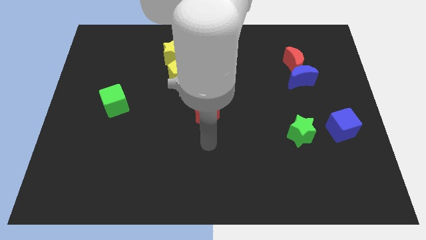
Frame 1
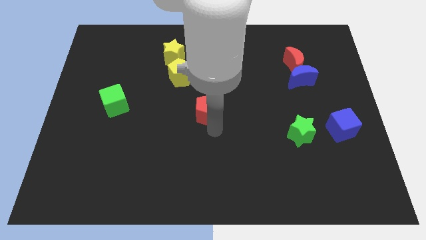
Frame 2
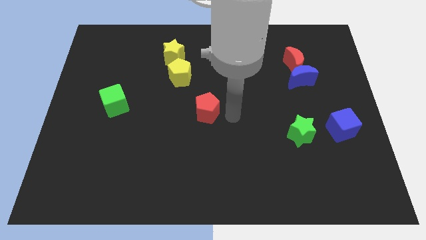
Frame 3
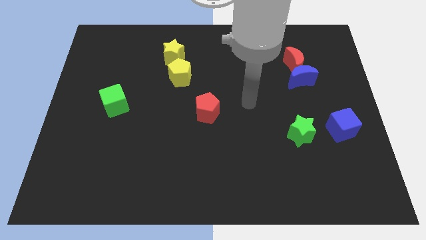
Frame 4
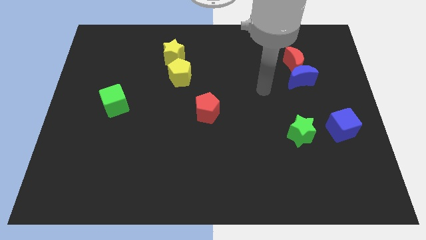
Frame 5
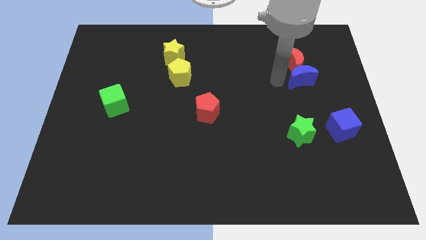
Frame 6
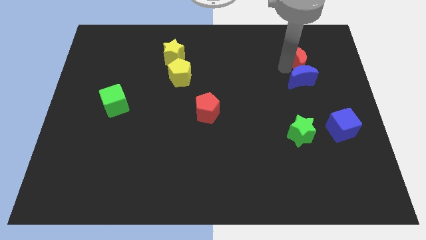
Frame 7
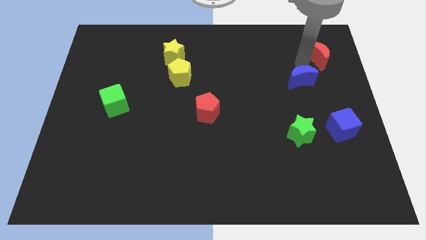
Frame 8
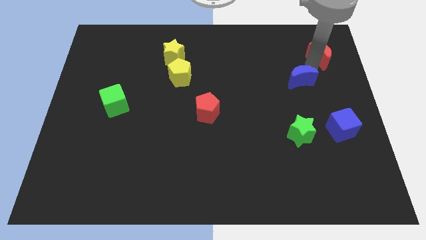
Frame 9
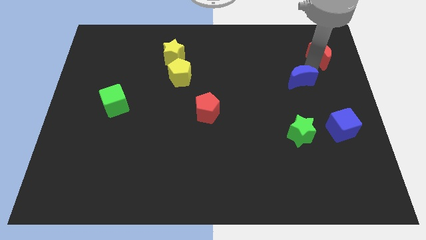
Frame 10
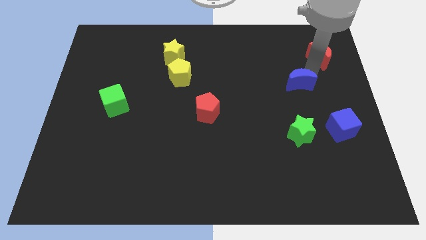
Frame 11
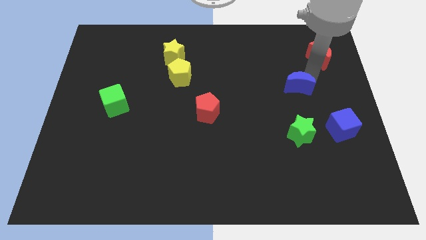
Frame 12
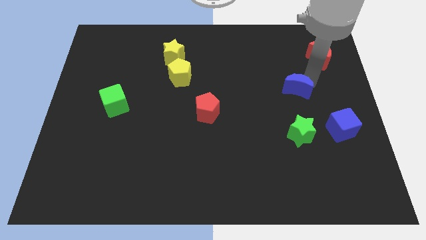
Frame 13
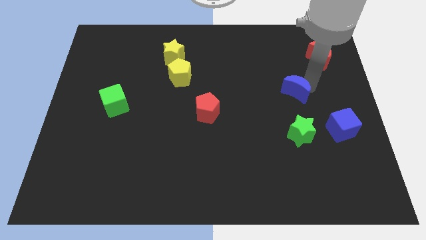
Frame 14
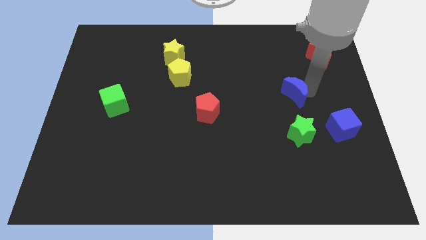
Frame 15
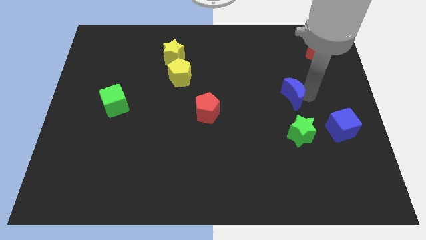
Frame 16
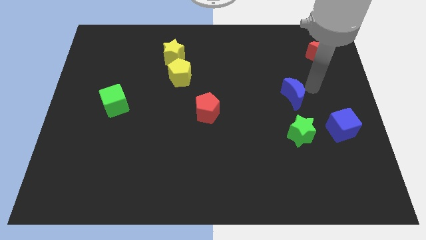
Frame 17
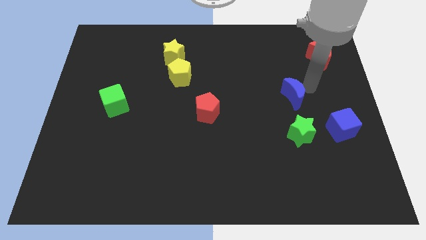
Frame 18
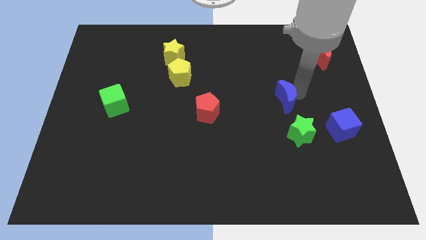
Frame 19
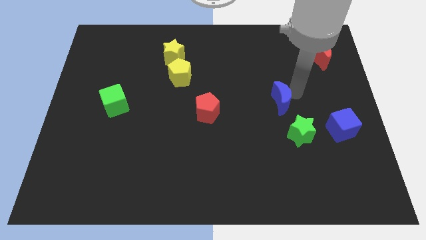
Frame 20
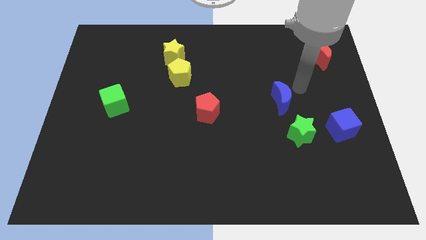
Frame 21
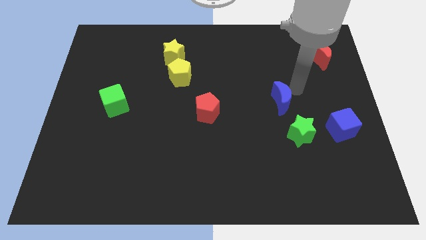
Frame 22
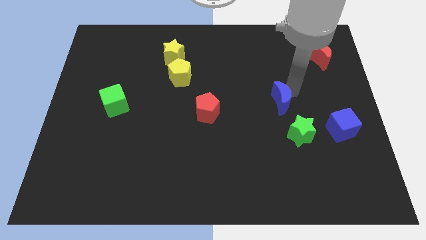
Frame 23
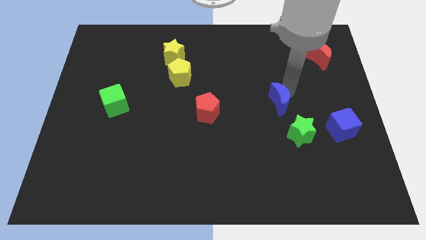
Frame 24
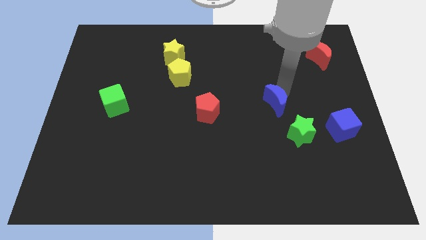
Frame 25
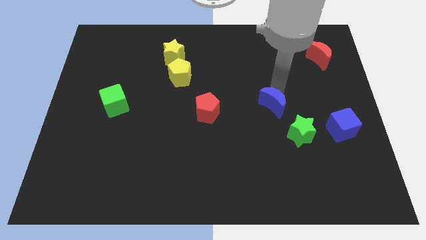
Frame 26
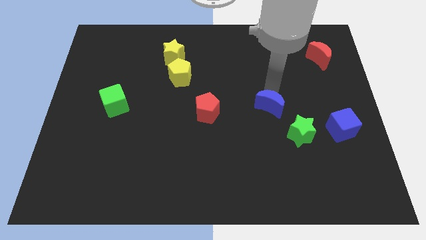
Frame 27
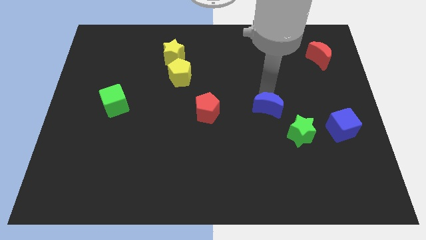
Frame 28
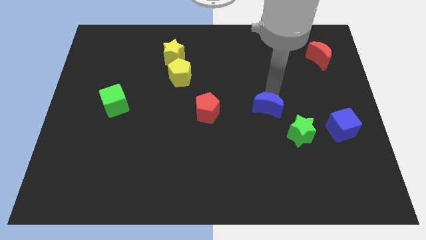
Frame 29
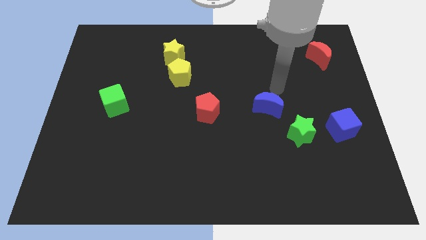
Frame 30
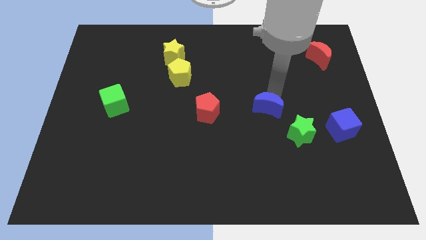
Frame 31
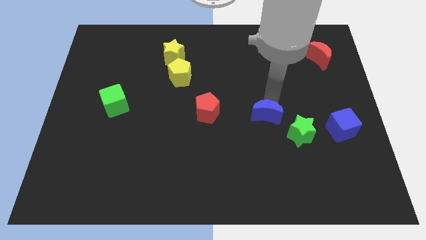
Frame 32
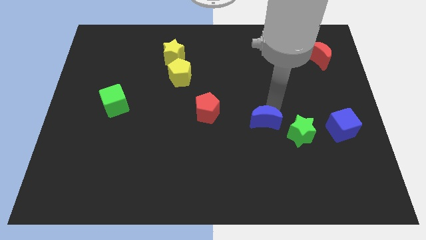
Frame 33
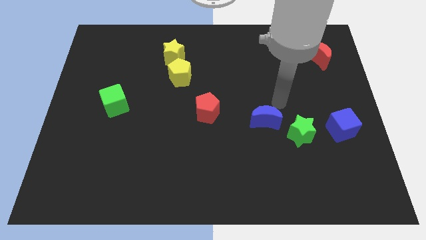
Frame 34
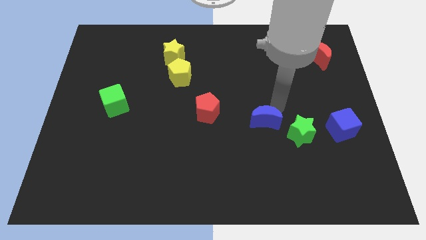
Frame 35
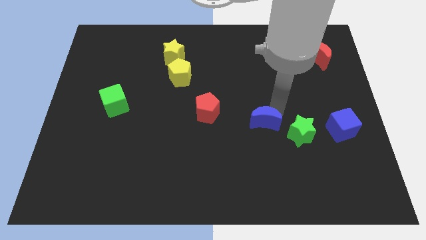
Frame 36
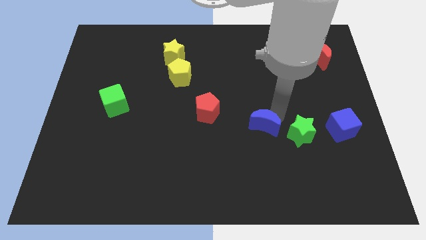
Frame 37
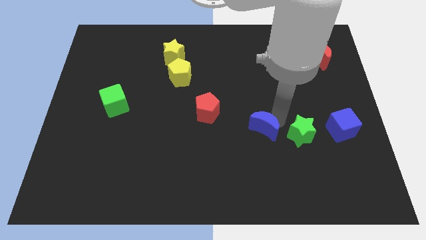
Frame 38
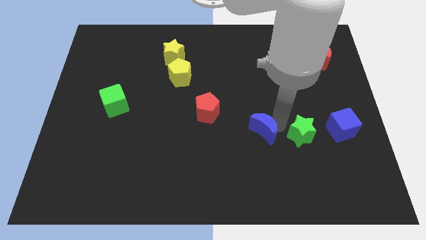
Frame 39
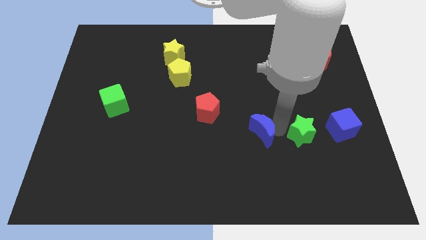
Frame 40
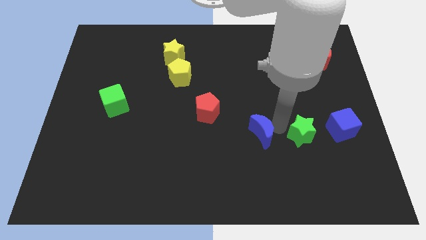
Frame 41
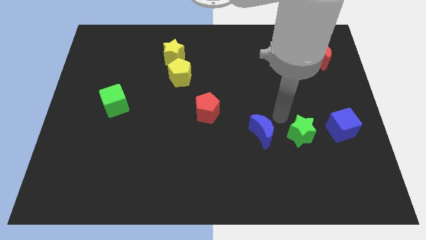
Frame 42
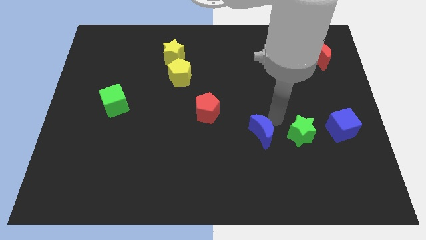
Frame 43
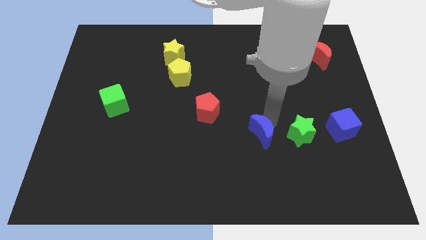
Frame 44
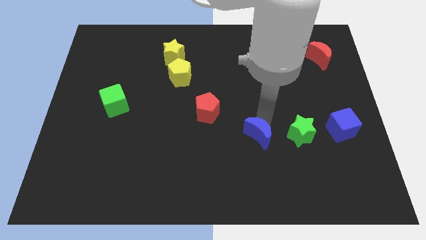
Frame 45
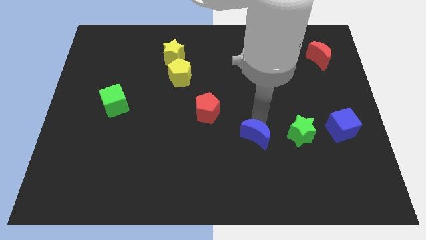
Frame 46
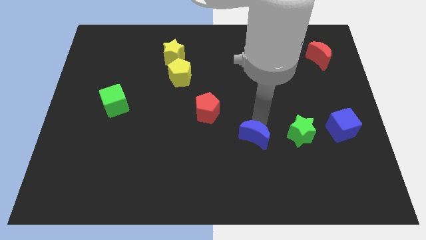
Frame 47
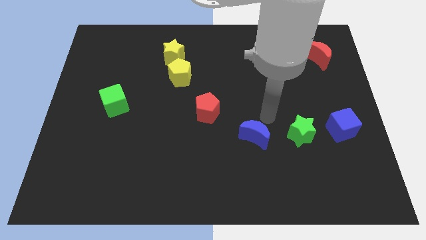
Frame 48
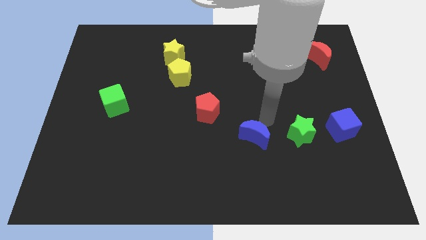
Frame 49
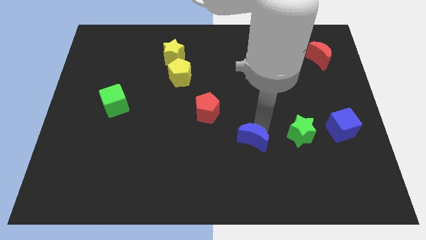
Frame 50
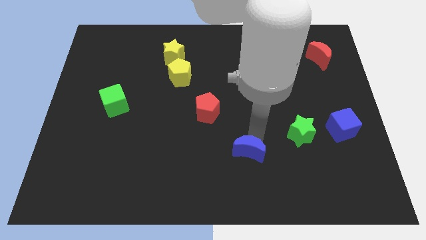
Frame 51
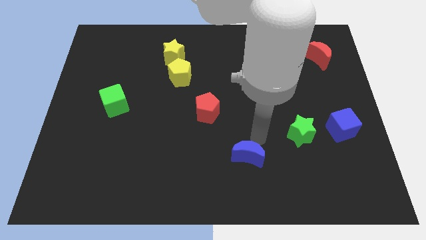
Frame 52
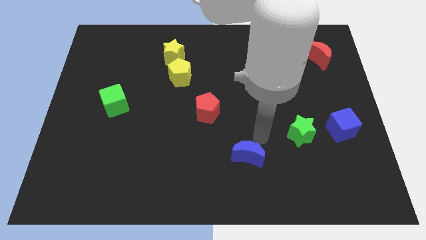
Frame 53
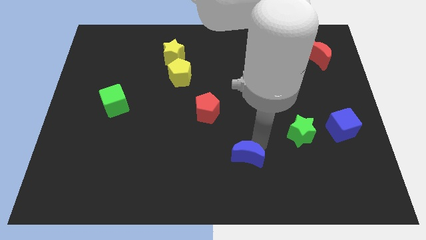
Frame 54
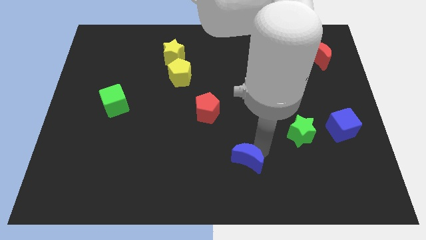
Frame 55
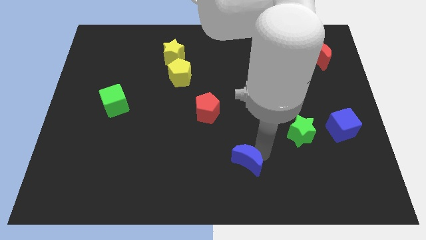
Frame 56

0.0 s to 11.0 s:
put the blue moon to the bottom

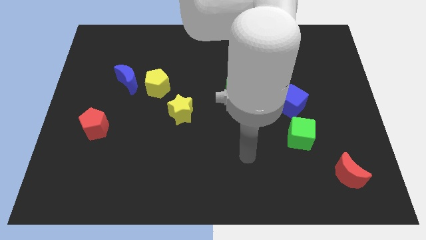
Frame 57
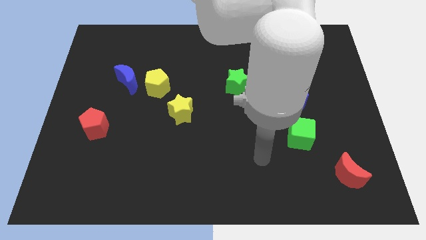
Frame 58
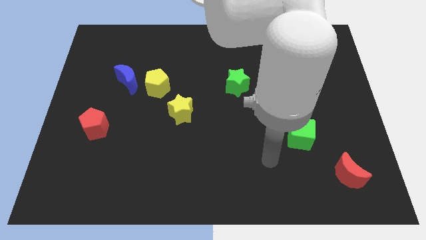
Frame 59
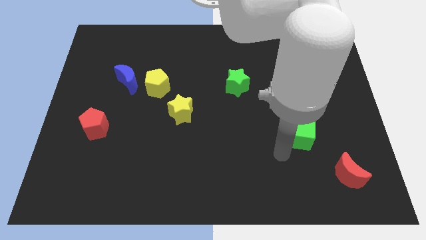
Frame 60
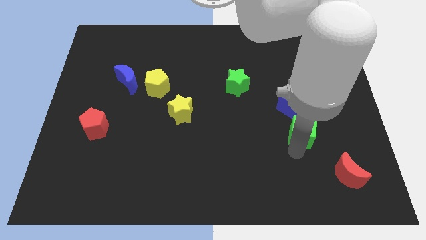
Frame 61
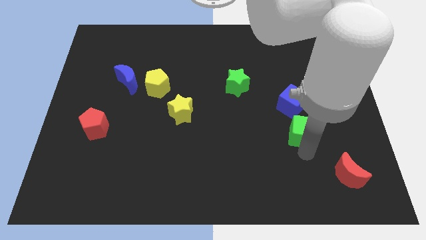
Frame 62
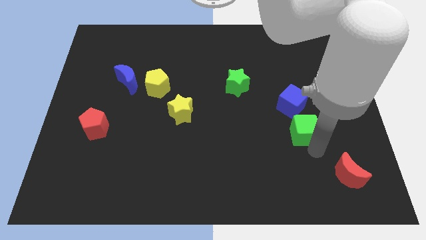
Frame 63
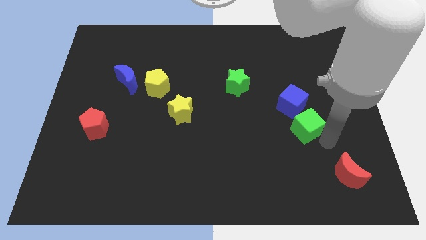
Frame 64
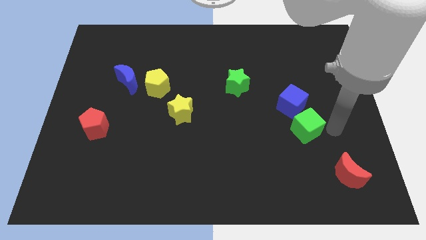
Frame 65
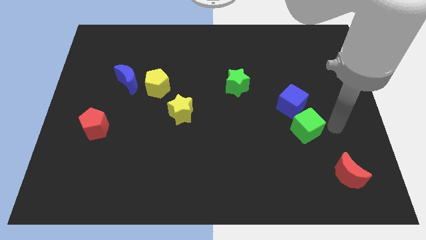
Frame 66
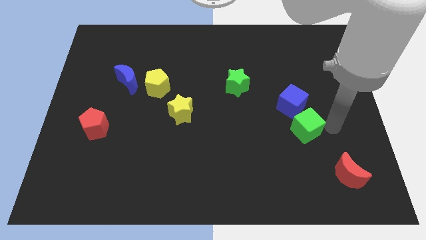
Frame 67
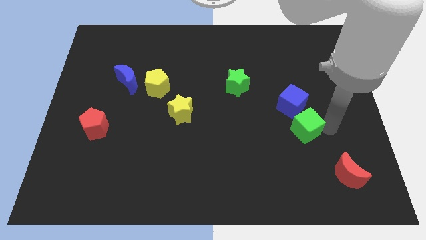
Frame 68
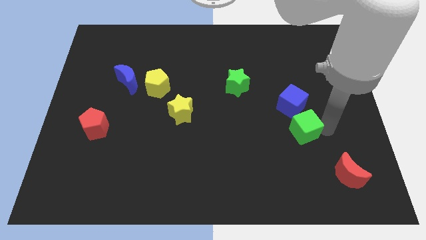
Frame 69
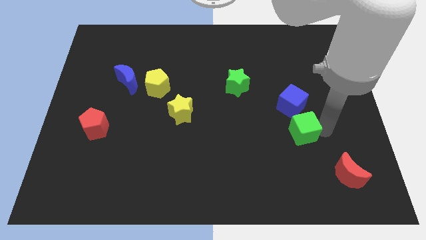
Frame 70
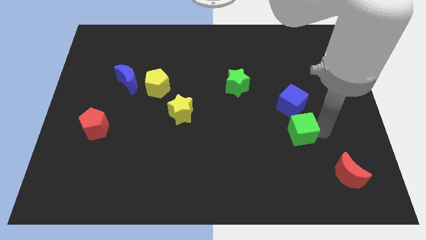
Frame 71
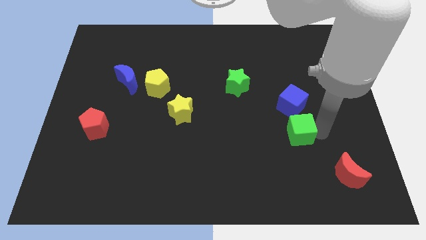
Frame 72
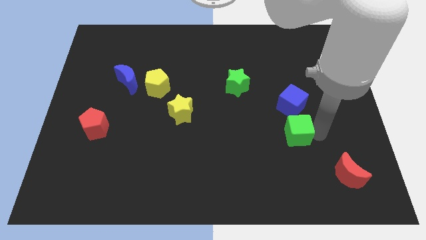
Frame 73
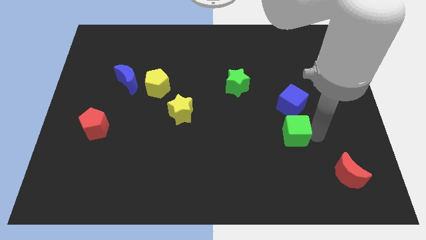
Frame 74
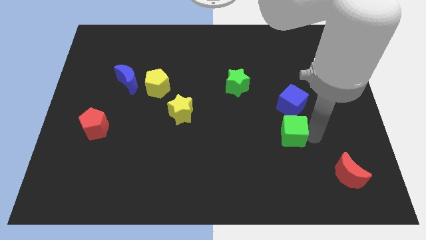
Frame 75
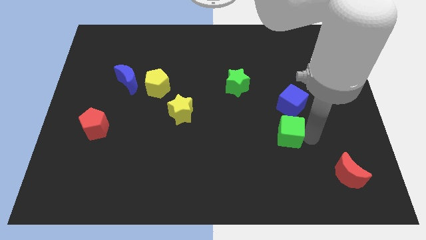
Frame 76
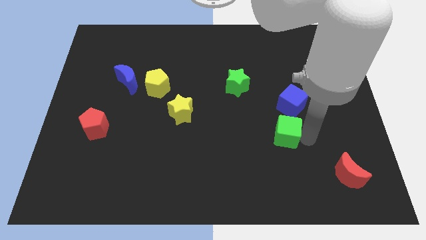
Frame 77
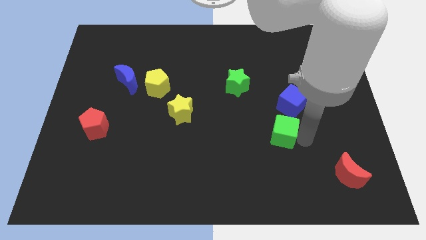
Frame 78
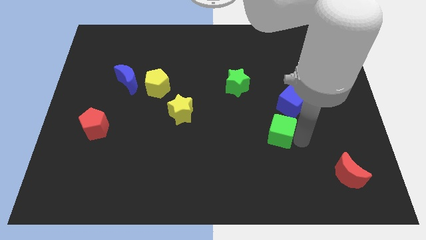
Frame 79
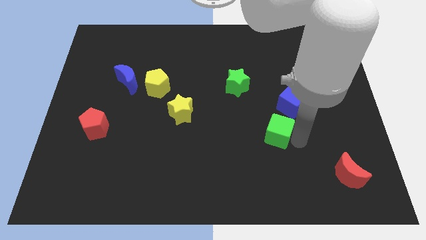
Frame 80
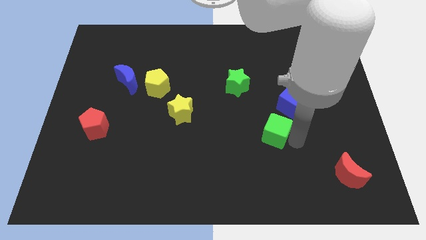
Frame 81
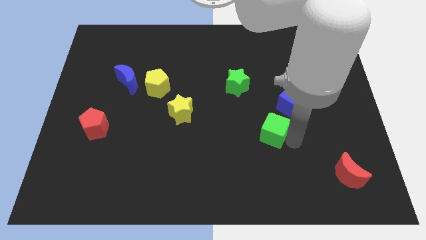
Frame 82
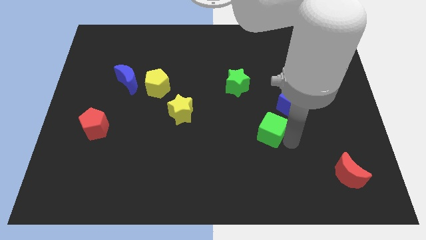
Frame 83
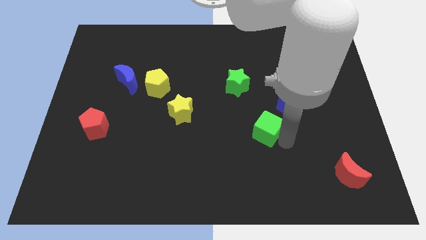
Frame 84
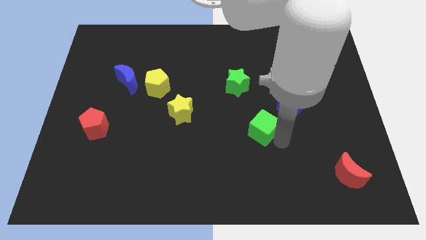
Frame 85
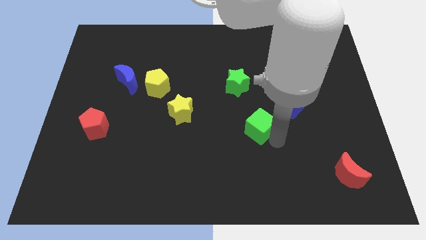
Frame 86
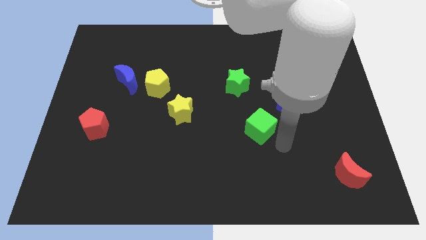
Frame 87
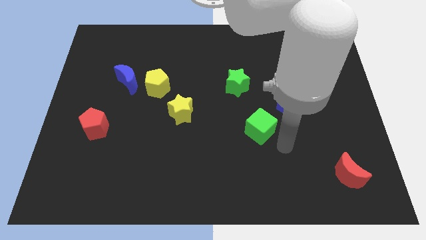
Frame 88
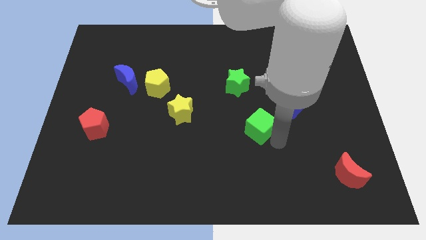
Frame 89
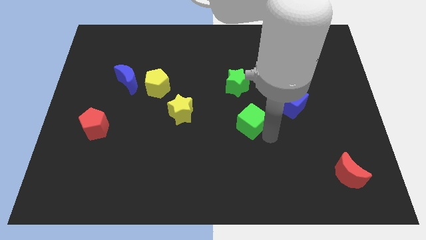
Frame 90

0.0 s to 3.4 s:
slide the green cube to the middle
